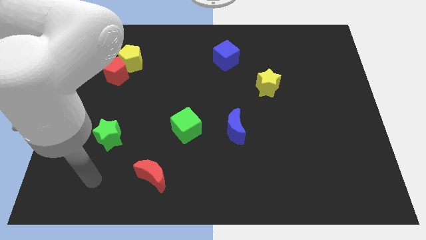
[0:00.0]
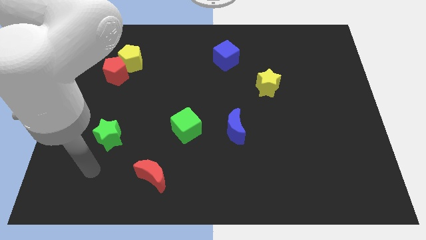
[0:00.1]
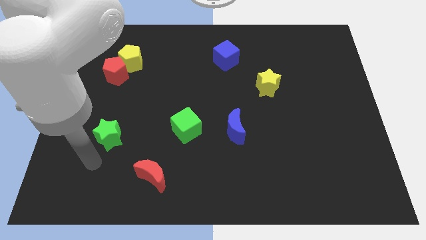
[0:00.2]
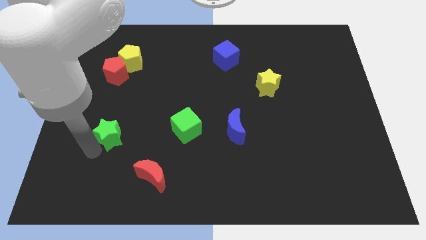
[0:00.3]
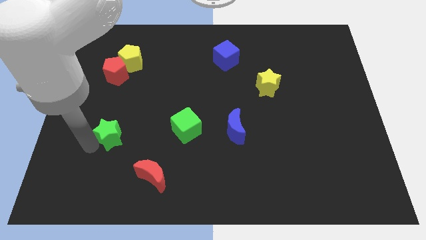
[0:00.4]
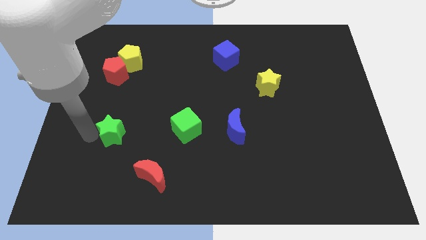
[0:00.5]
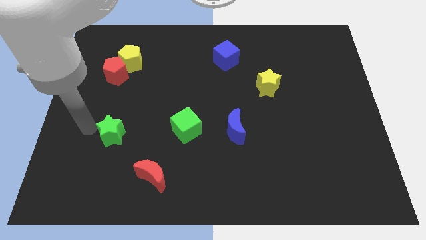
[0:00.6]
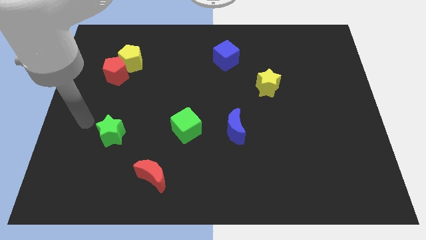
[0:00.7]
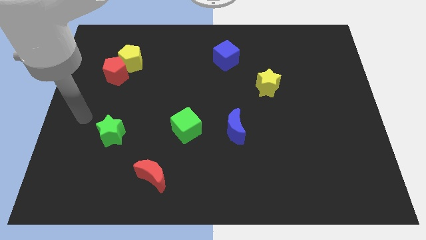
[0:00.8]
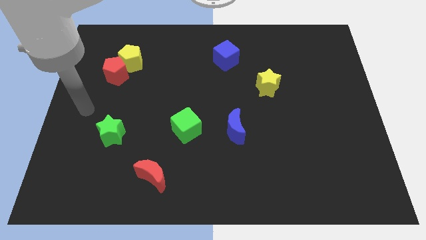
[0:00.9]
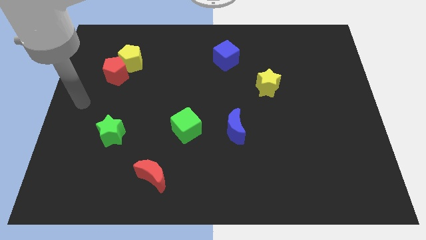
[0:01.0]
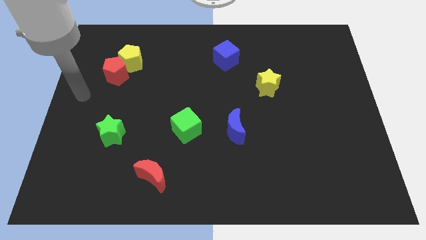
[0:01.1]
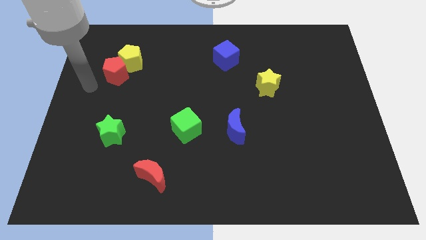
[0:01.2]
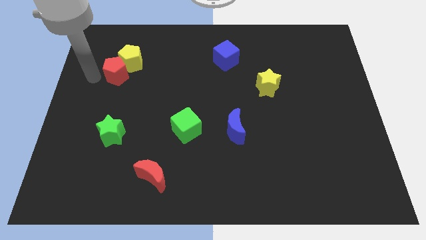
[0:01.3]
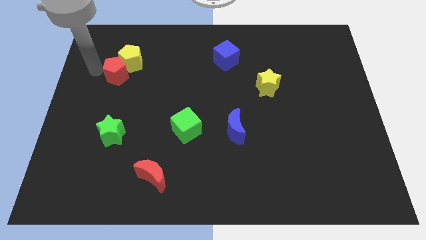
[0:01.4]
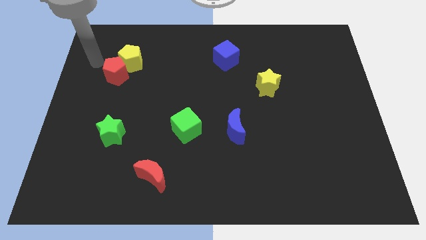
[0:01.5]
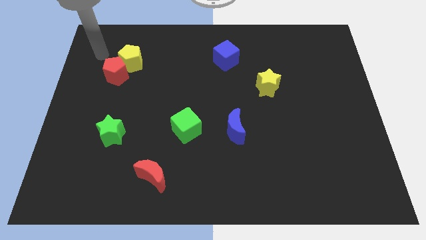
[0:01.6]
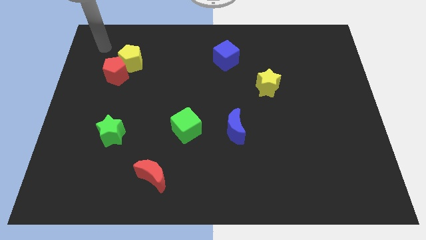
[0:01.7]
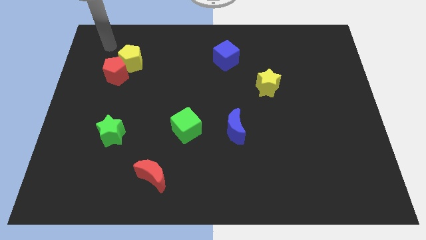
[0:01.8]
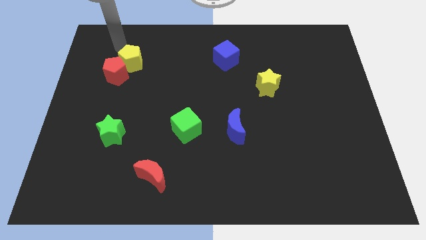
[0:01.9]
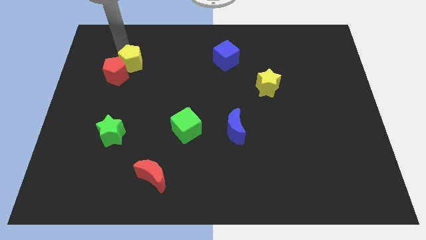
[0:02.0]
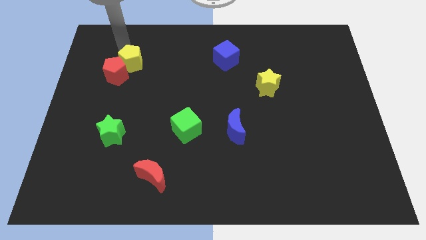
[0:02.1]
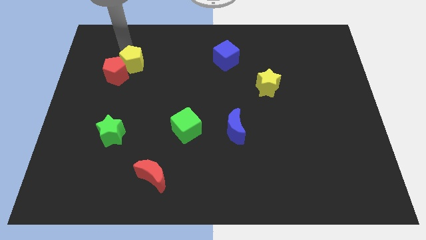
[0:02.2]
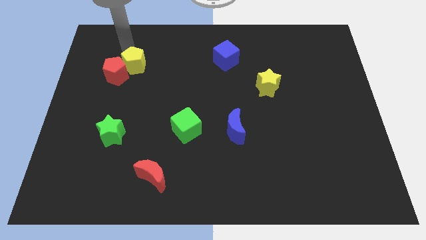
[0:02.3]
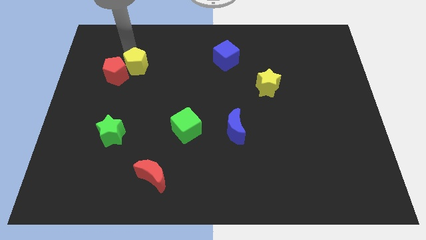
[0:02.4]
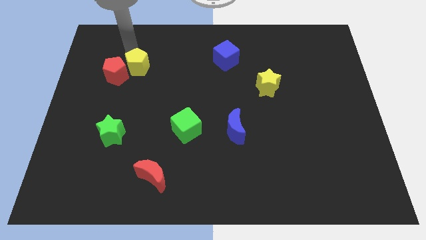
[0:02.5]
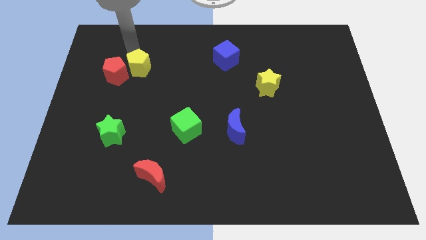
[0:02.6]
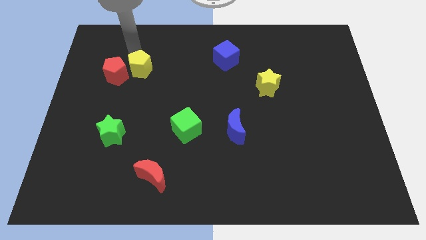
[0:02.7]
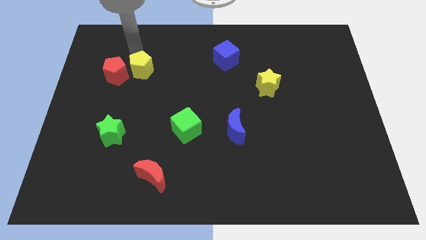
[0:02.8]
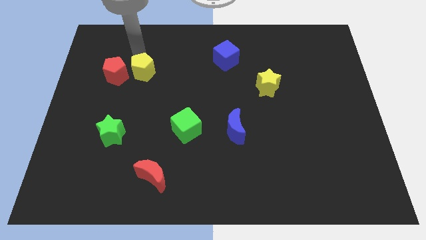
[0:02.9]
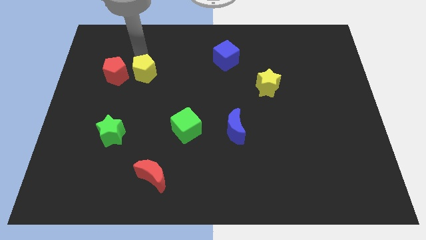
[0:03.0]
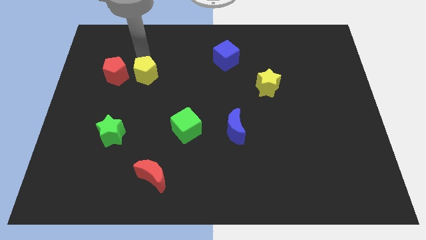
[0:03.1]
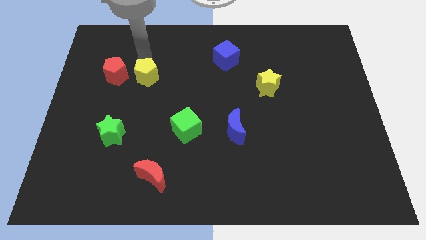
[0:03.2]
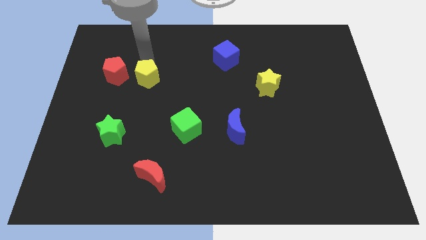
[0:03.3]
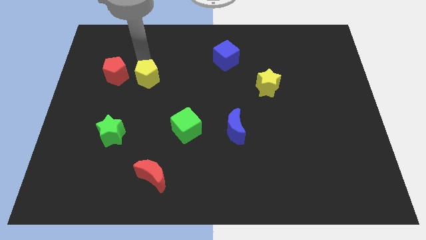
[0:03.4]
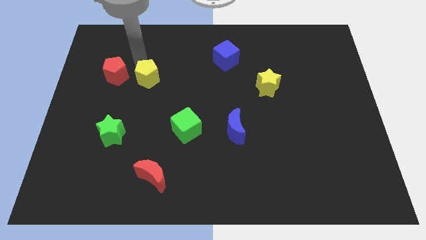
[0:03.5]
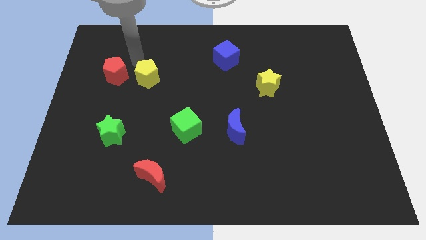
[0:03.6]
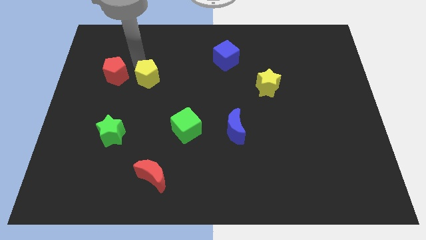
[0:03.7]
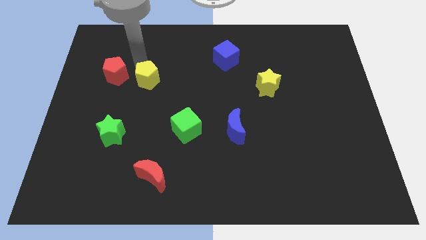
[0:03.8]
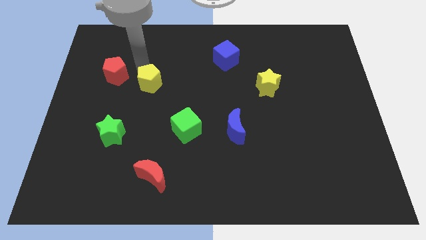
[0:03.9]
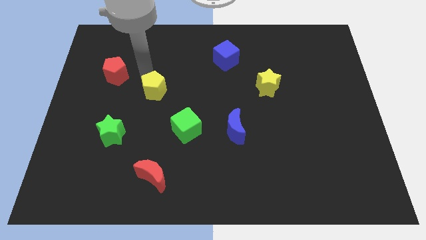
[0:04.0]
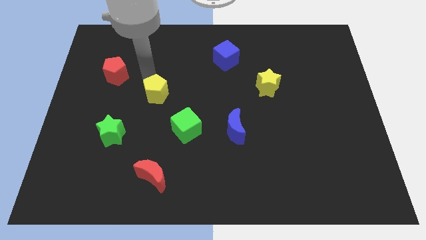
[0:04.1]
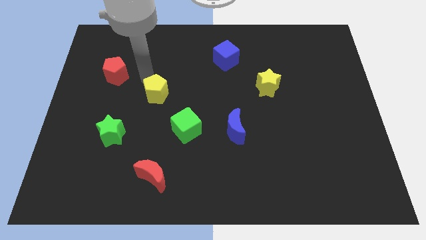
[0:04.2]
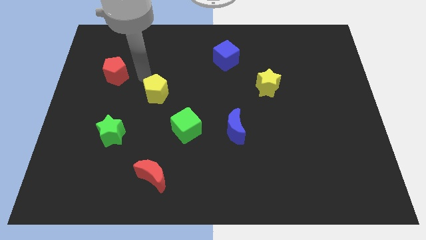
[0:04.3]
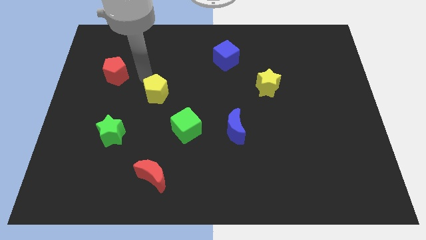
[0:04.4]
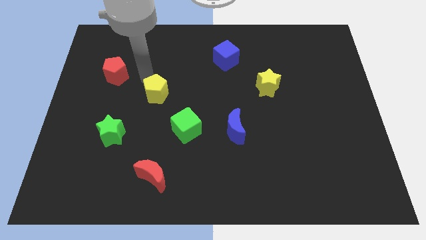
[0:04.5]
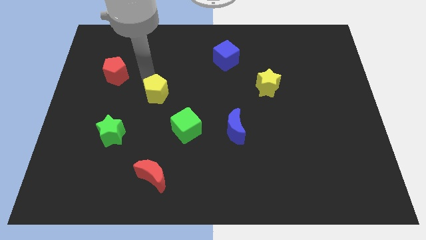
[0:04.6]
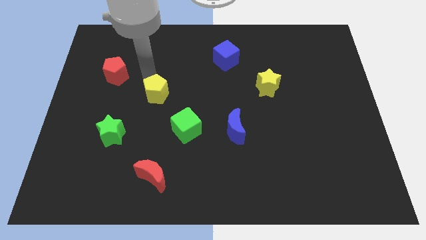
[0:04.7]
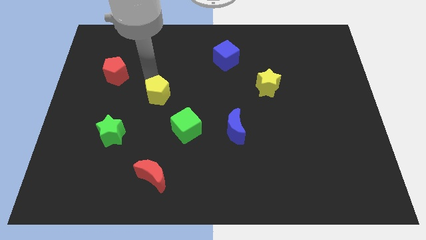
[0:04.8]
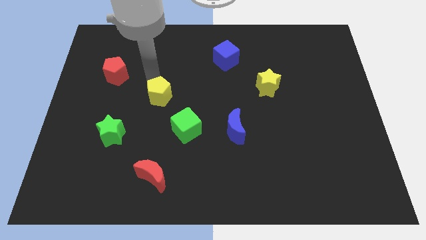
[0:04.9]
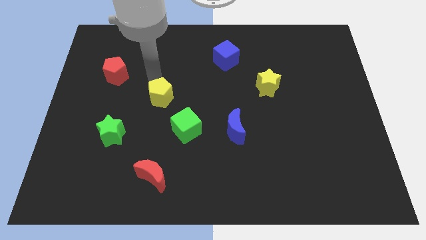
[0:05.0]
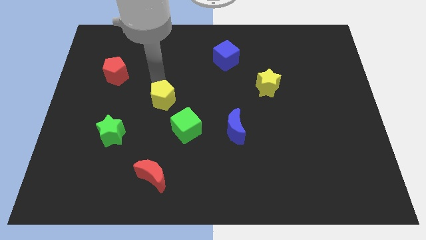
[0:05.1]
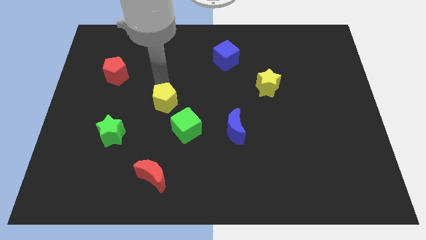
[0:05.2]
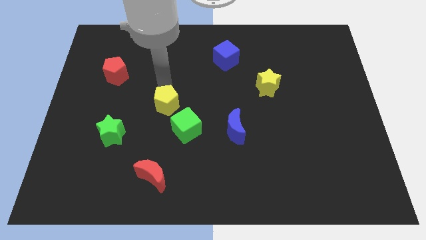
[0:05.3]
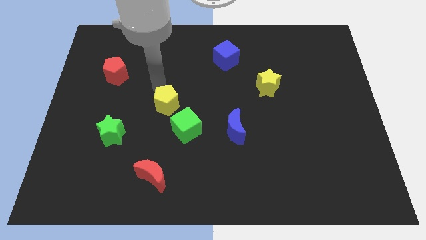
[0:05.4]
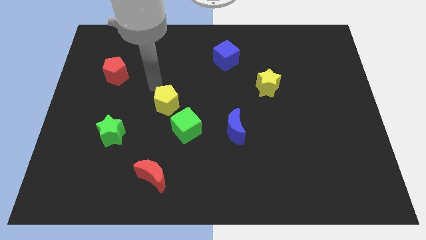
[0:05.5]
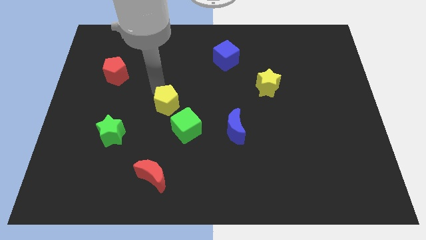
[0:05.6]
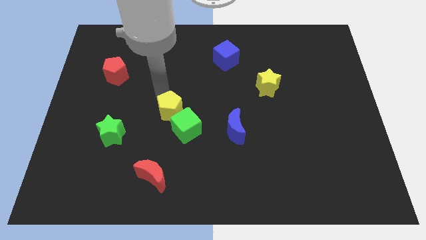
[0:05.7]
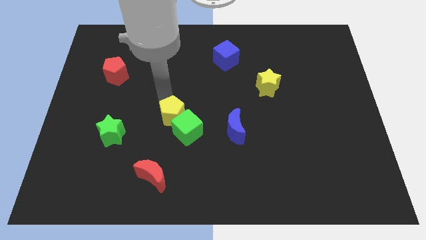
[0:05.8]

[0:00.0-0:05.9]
slide the yellow pentagon next to the green cube
